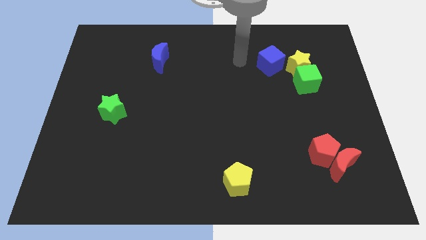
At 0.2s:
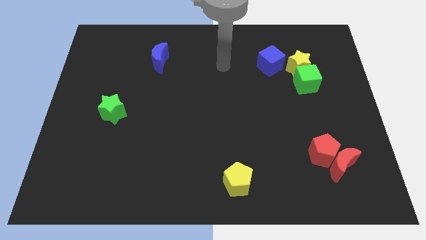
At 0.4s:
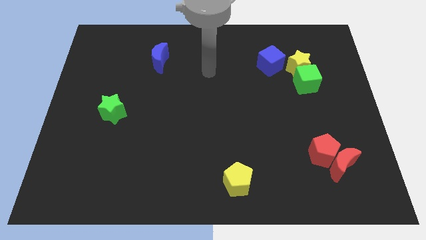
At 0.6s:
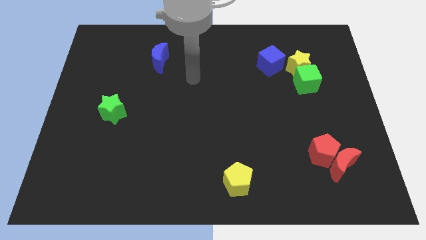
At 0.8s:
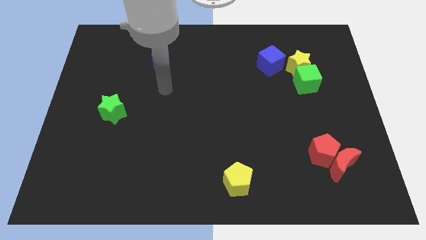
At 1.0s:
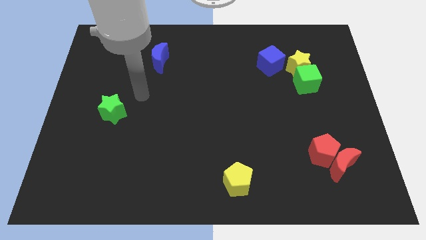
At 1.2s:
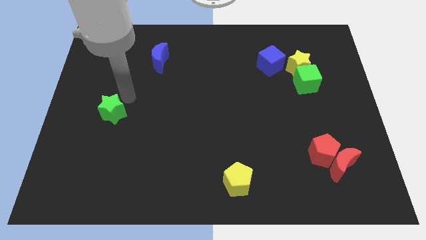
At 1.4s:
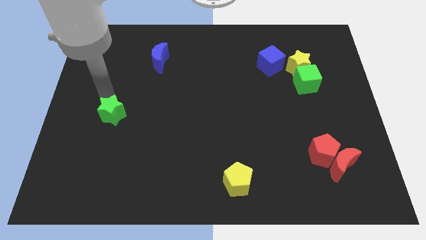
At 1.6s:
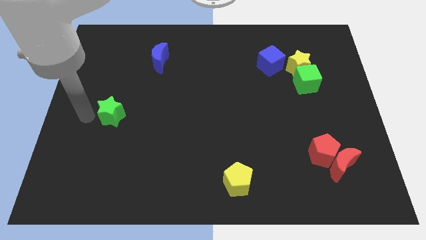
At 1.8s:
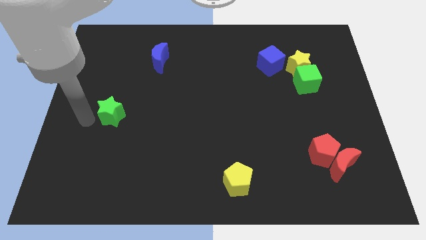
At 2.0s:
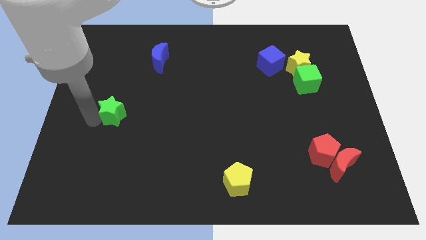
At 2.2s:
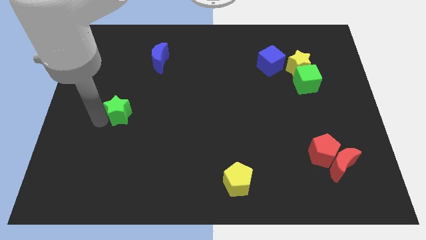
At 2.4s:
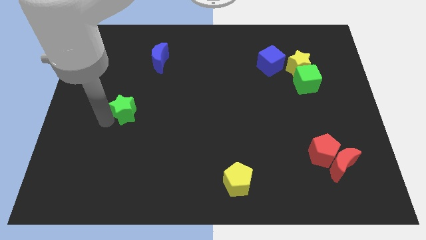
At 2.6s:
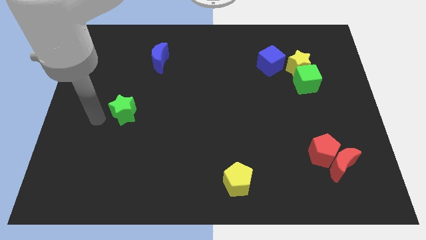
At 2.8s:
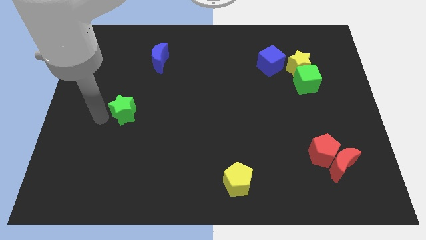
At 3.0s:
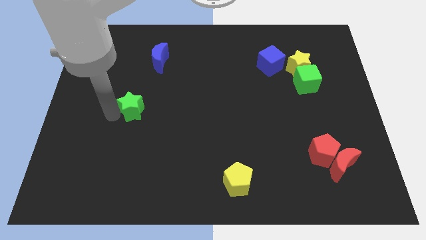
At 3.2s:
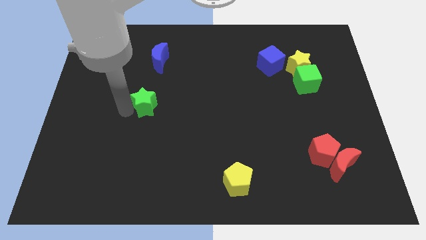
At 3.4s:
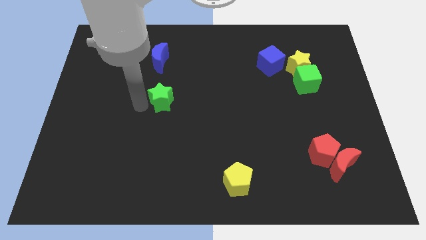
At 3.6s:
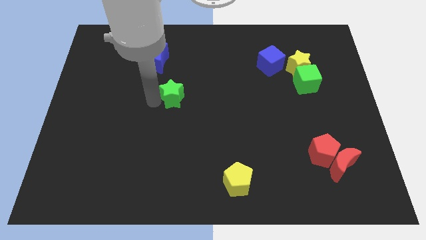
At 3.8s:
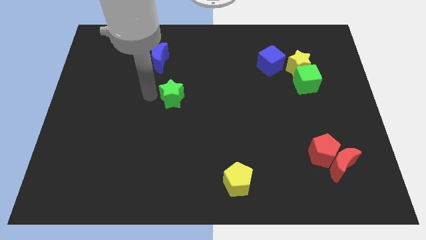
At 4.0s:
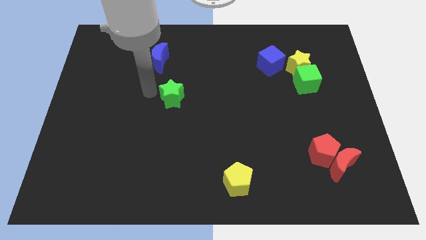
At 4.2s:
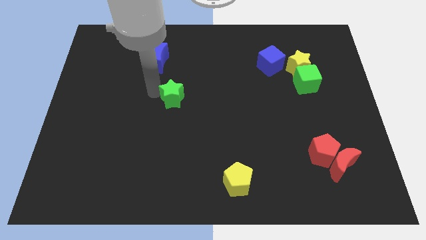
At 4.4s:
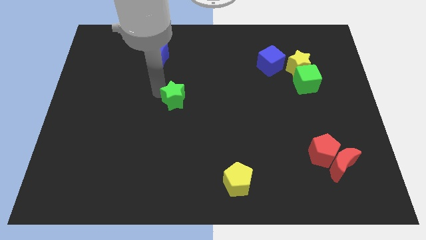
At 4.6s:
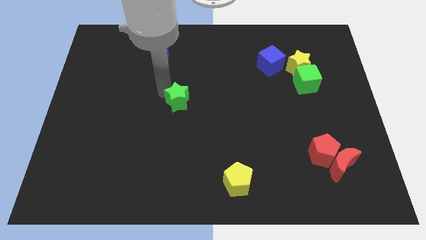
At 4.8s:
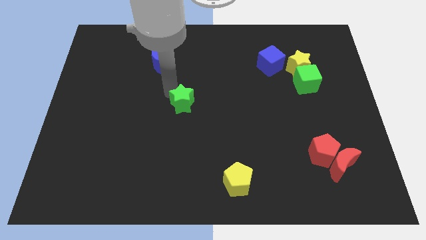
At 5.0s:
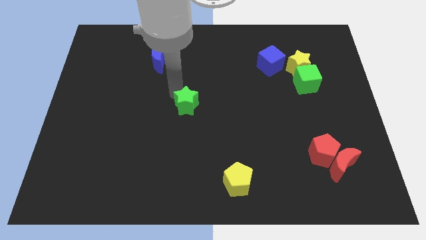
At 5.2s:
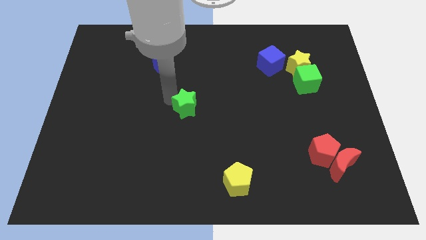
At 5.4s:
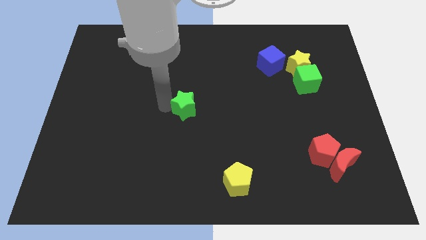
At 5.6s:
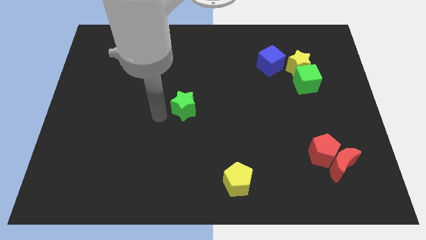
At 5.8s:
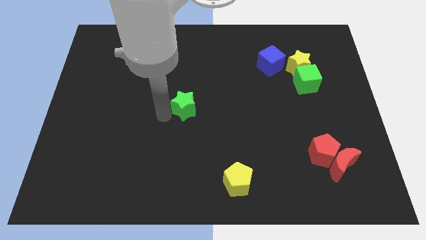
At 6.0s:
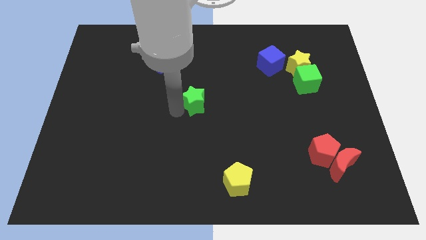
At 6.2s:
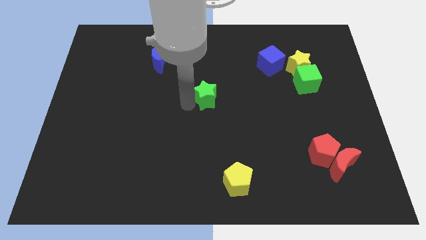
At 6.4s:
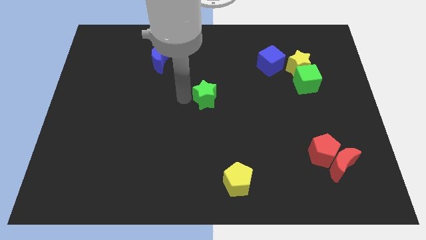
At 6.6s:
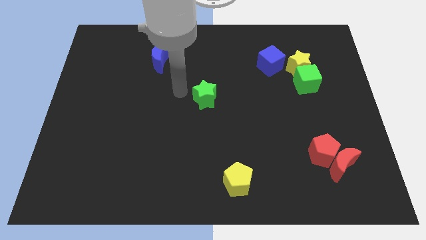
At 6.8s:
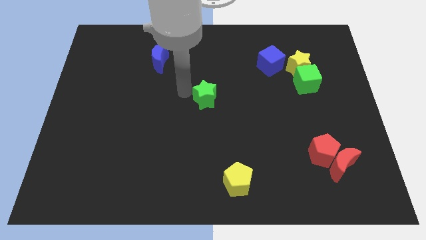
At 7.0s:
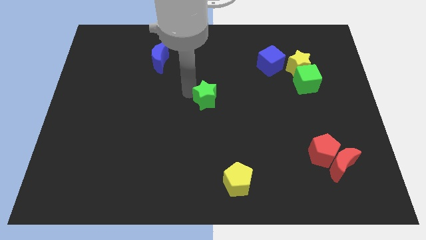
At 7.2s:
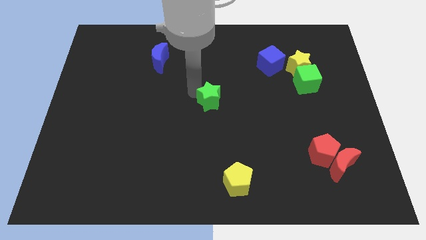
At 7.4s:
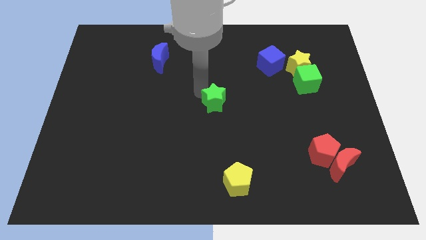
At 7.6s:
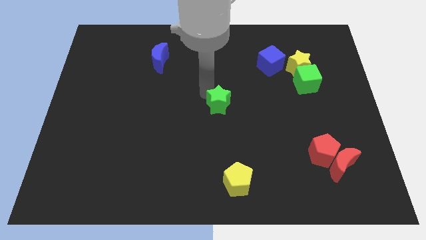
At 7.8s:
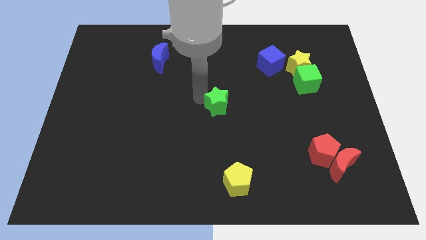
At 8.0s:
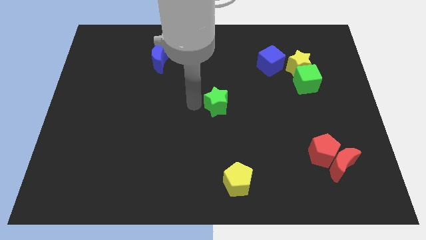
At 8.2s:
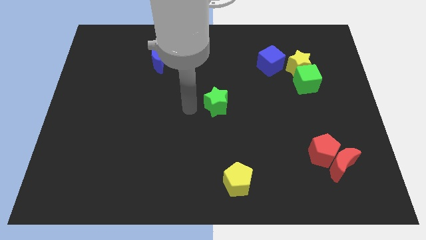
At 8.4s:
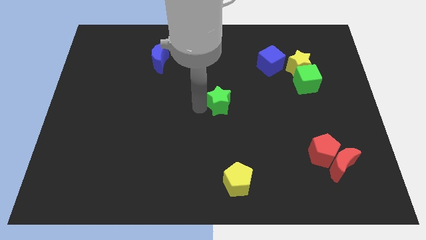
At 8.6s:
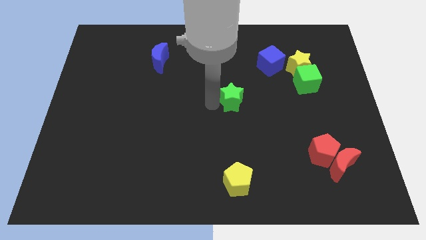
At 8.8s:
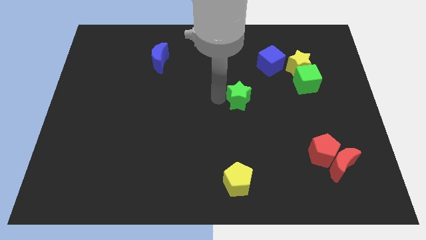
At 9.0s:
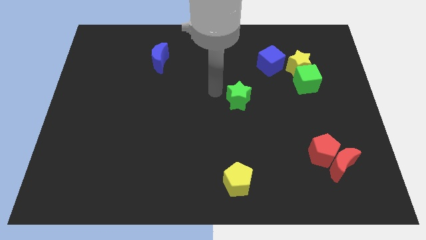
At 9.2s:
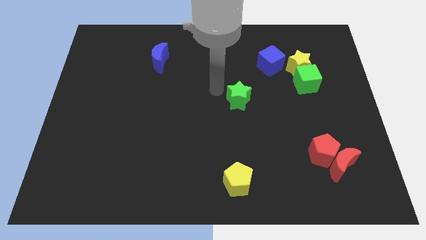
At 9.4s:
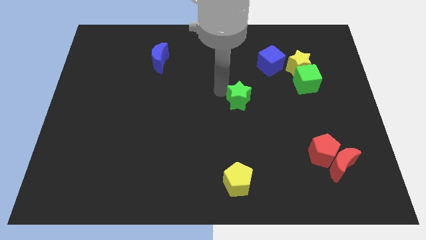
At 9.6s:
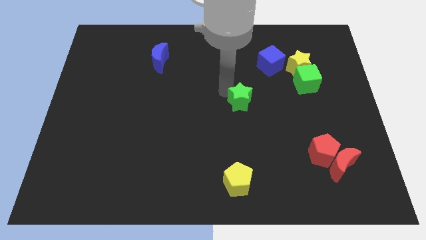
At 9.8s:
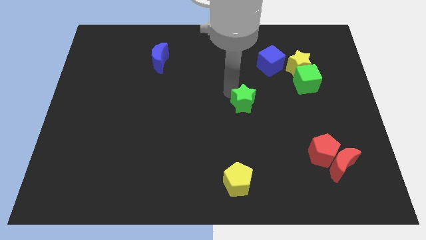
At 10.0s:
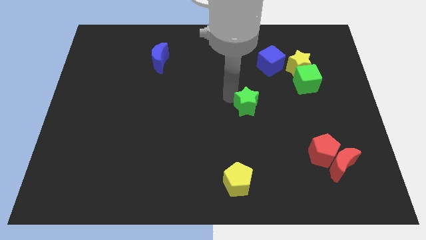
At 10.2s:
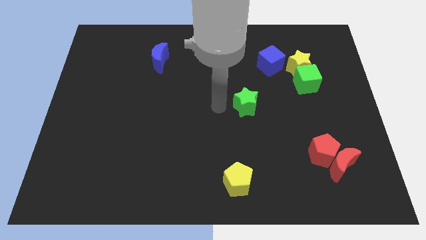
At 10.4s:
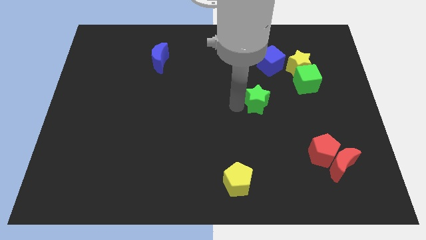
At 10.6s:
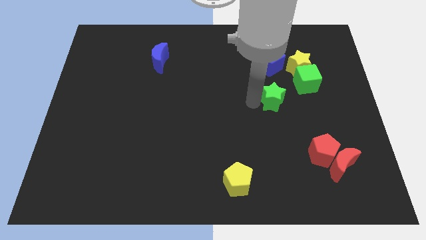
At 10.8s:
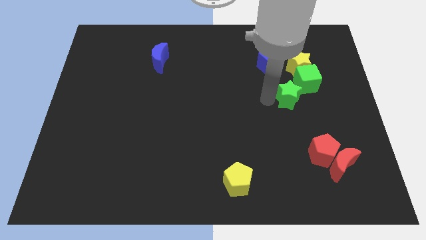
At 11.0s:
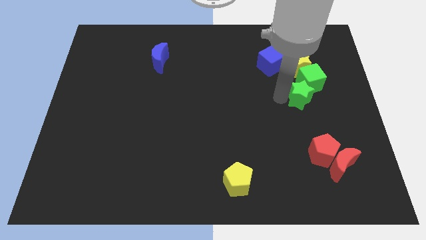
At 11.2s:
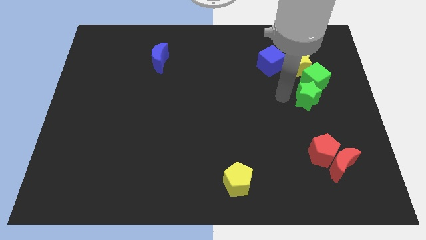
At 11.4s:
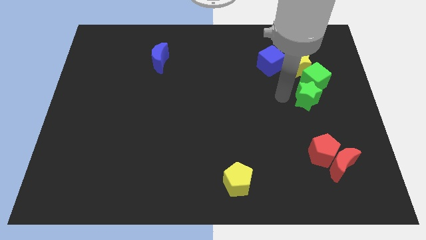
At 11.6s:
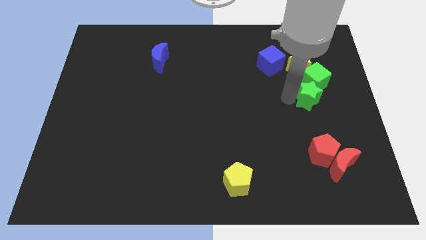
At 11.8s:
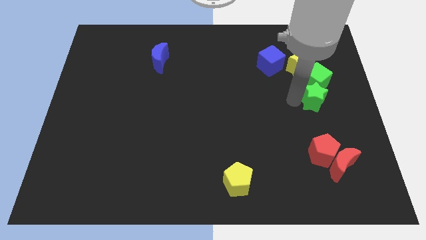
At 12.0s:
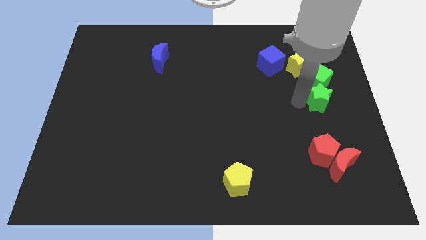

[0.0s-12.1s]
slide the green star to the center right

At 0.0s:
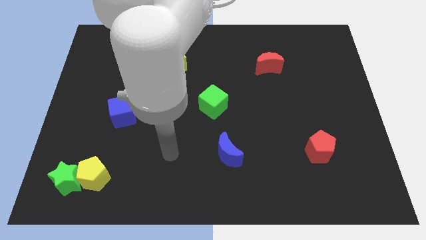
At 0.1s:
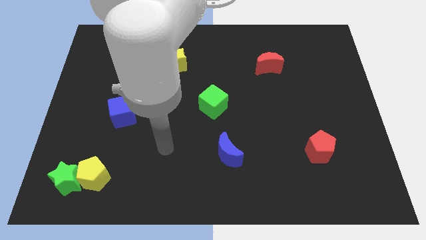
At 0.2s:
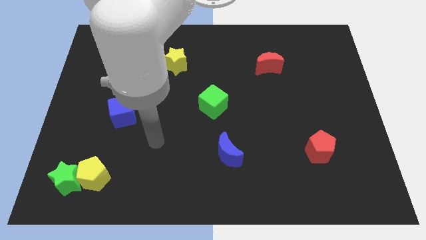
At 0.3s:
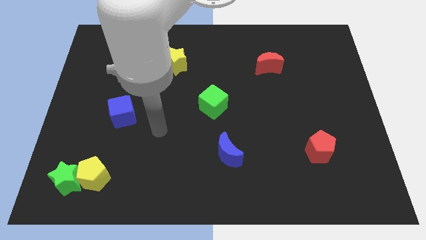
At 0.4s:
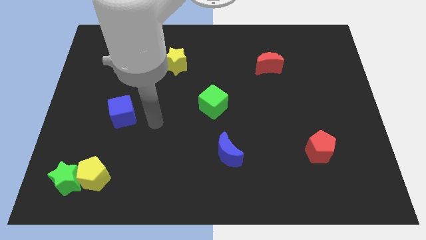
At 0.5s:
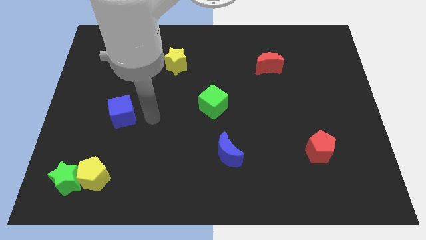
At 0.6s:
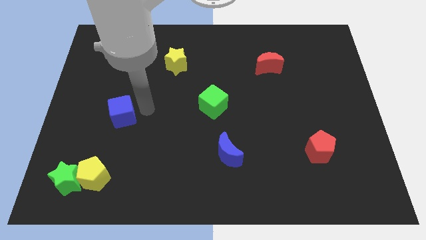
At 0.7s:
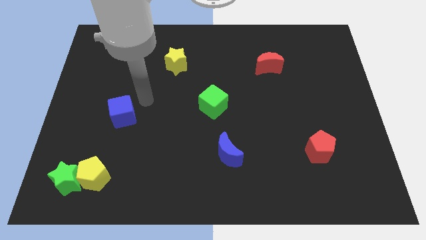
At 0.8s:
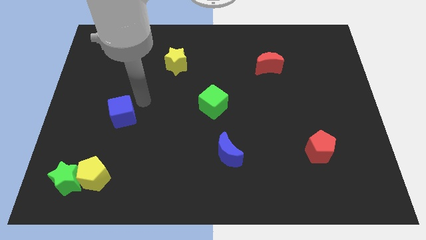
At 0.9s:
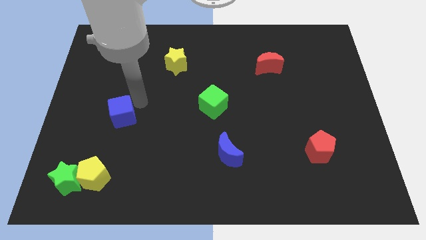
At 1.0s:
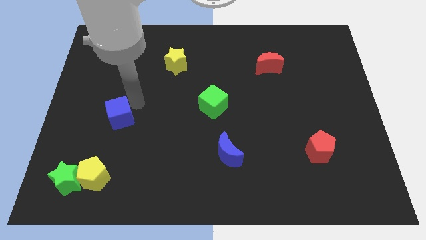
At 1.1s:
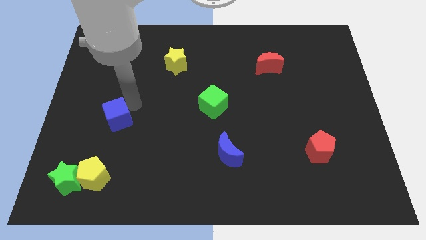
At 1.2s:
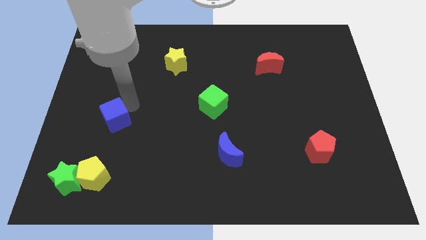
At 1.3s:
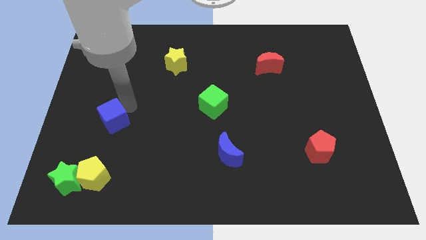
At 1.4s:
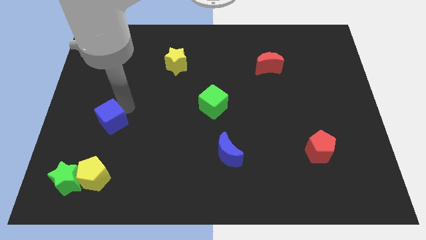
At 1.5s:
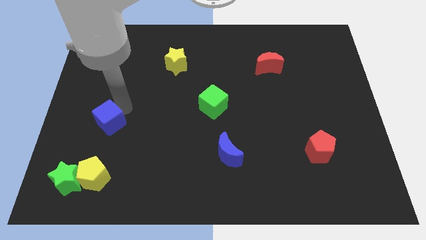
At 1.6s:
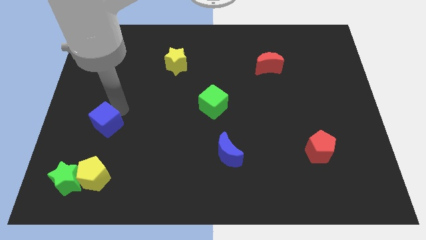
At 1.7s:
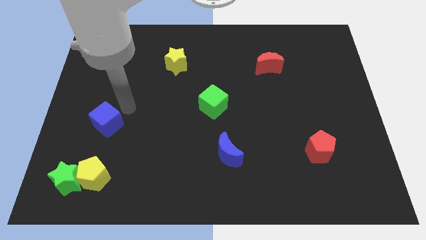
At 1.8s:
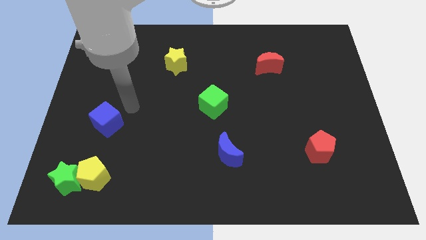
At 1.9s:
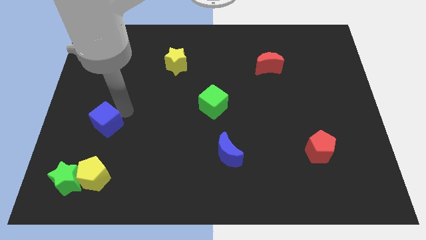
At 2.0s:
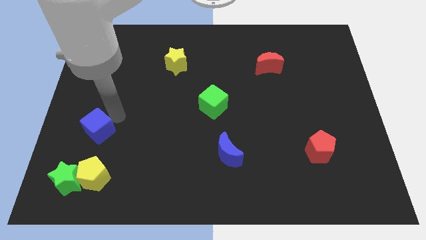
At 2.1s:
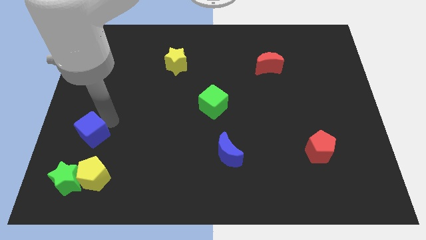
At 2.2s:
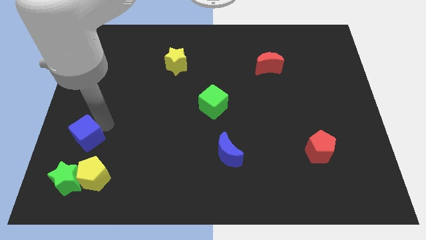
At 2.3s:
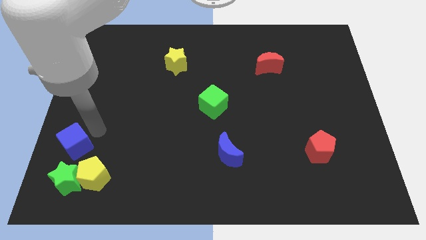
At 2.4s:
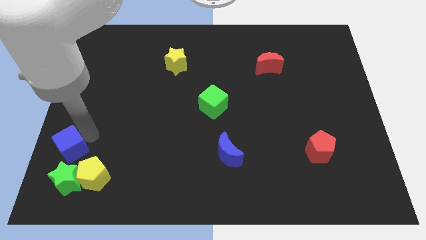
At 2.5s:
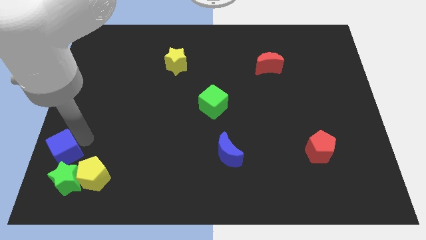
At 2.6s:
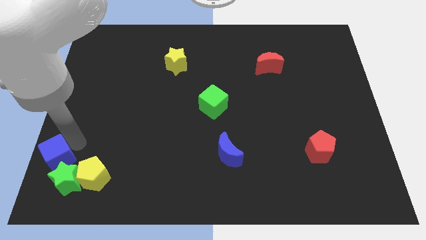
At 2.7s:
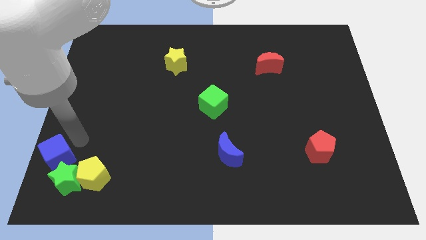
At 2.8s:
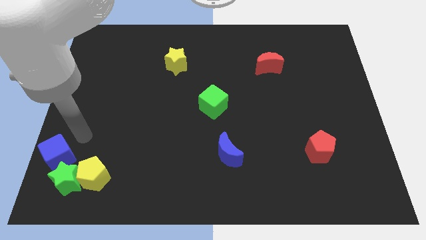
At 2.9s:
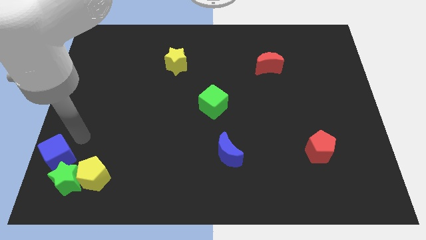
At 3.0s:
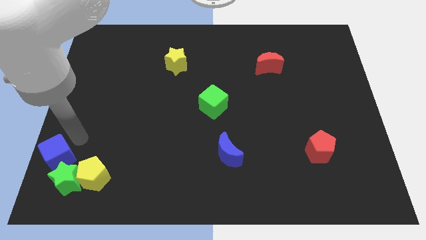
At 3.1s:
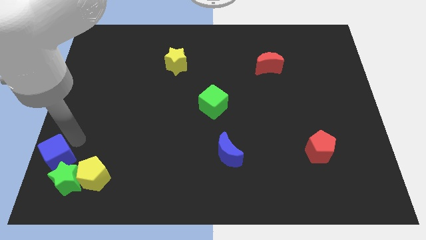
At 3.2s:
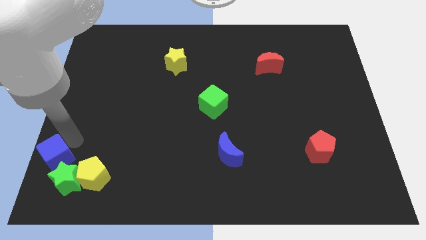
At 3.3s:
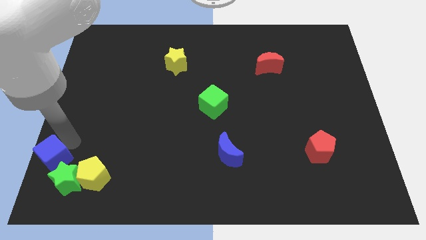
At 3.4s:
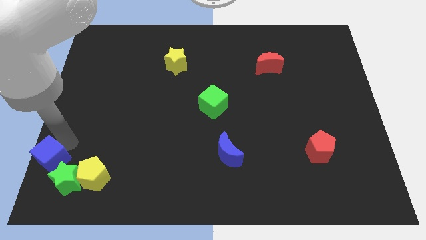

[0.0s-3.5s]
move the blue cube to the bottom left corner
